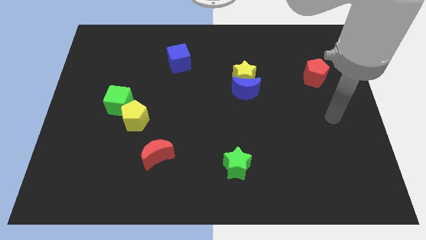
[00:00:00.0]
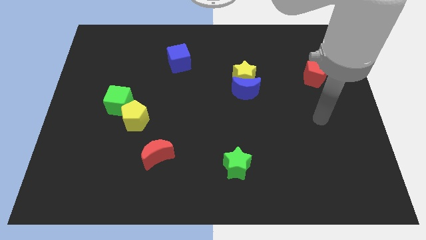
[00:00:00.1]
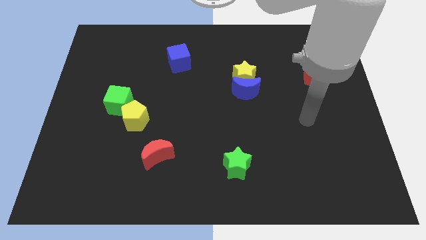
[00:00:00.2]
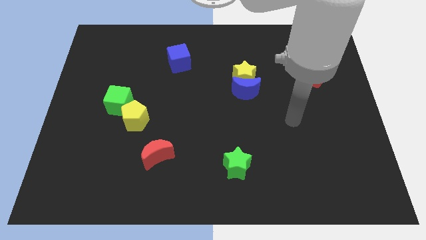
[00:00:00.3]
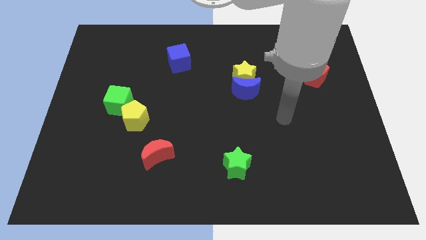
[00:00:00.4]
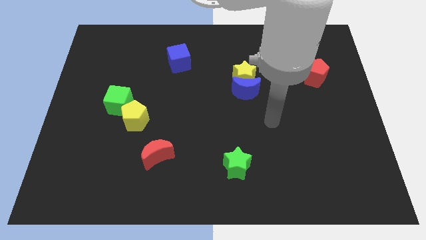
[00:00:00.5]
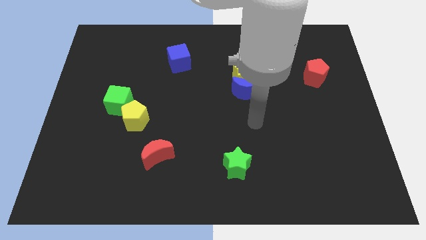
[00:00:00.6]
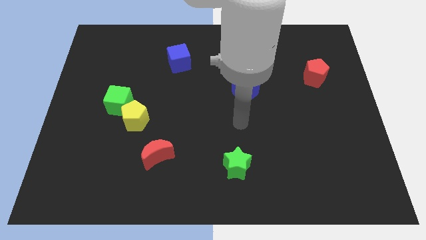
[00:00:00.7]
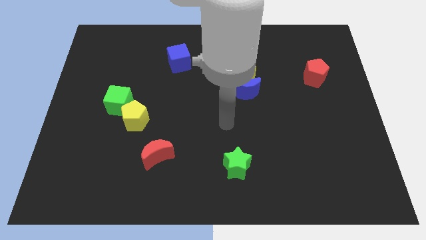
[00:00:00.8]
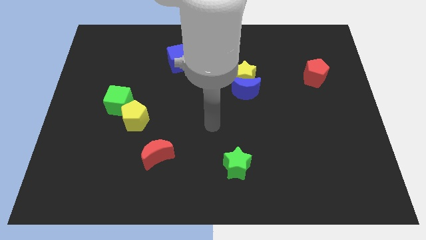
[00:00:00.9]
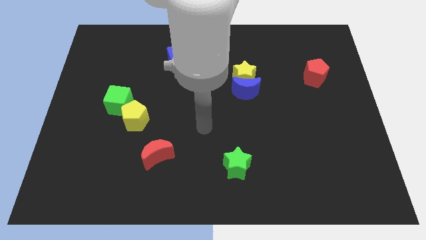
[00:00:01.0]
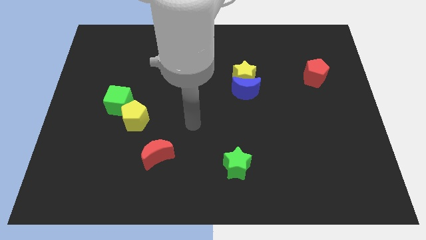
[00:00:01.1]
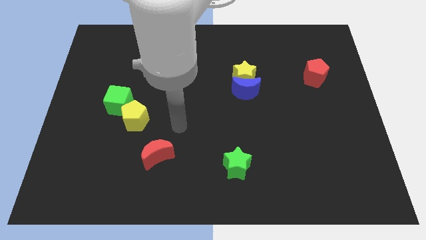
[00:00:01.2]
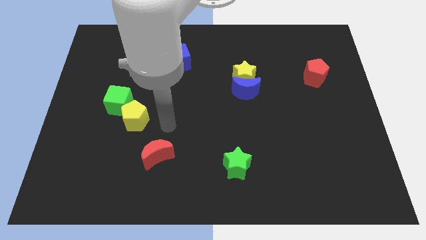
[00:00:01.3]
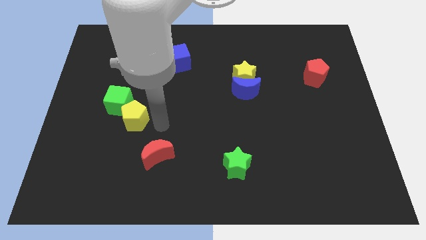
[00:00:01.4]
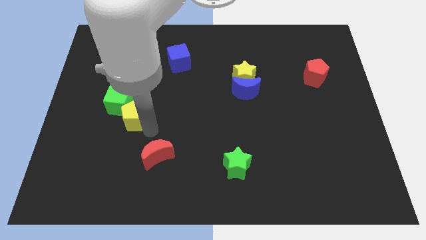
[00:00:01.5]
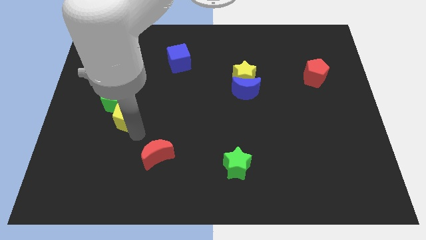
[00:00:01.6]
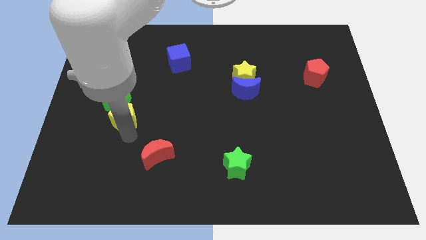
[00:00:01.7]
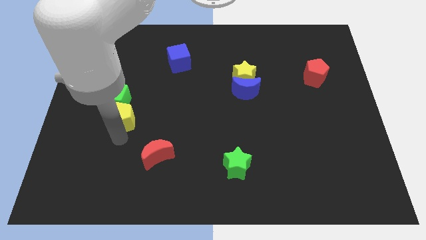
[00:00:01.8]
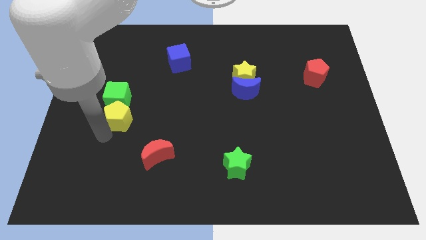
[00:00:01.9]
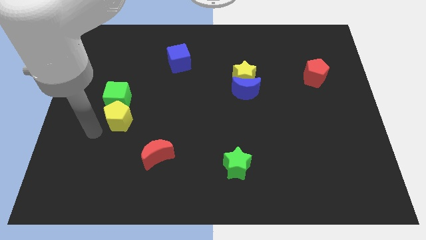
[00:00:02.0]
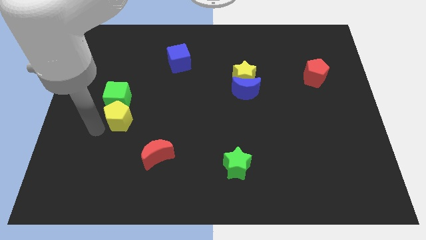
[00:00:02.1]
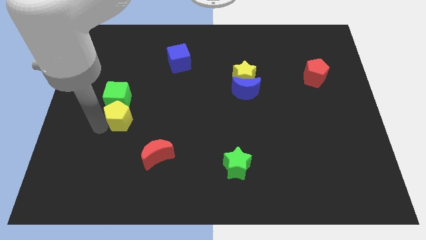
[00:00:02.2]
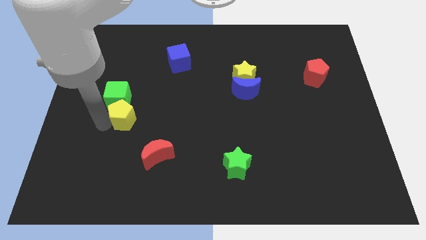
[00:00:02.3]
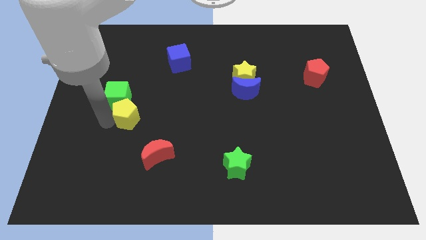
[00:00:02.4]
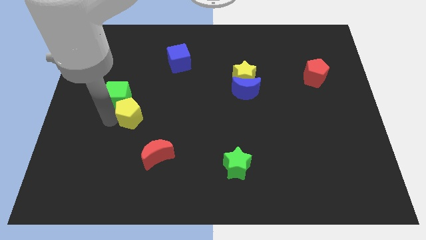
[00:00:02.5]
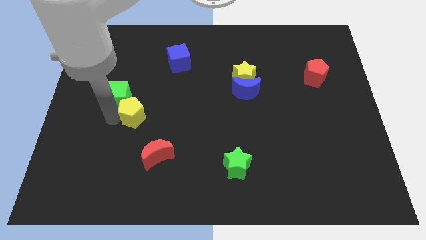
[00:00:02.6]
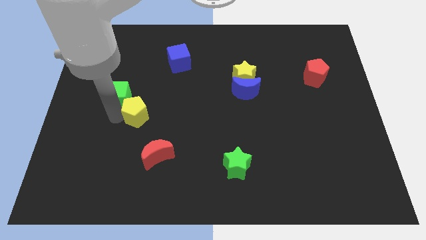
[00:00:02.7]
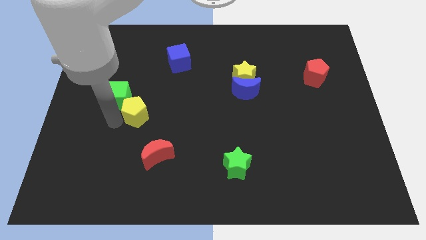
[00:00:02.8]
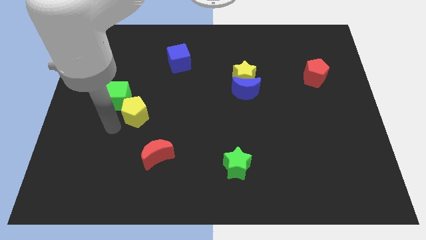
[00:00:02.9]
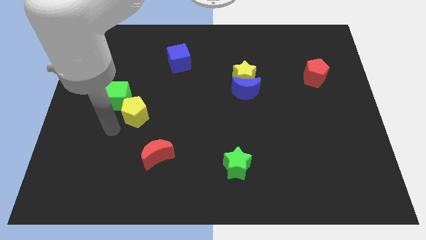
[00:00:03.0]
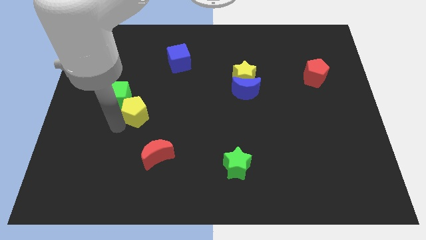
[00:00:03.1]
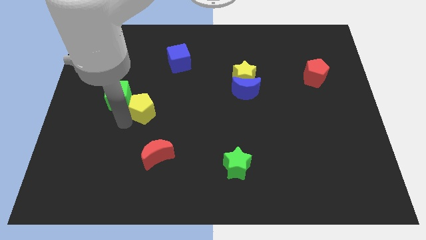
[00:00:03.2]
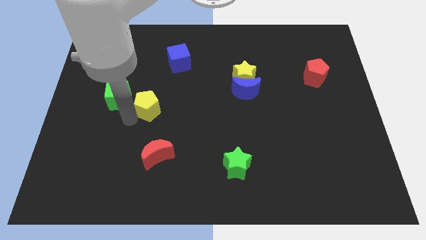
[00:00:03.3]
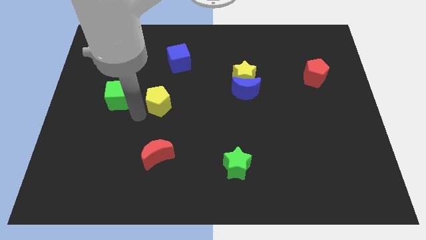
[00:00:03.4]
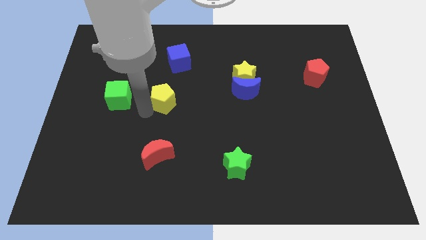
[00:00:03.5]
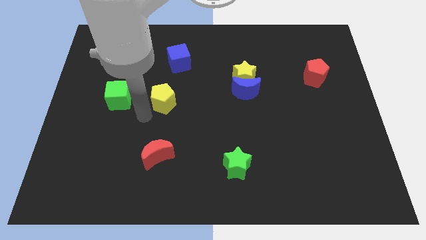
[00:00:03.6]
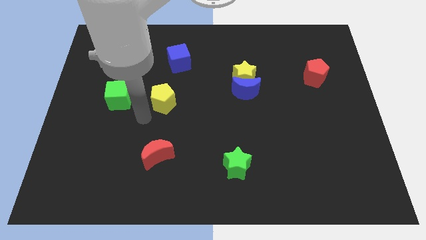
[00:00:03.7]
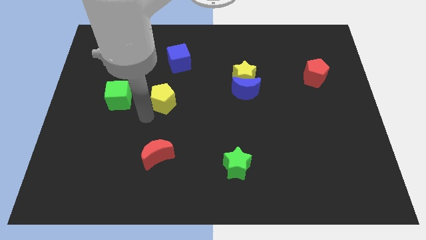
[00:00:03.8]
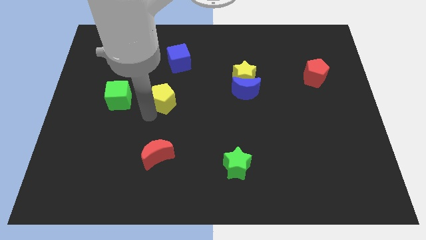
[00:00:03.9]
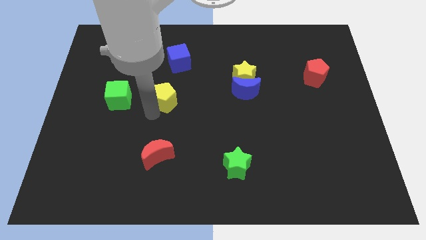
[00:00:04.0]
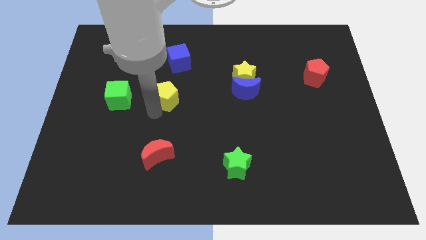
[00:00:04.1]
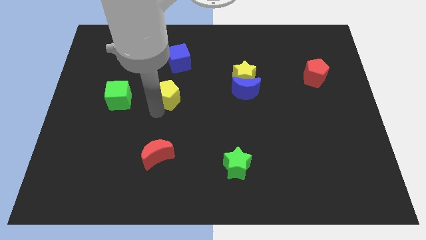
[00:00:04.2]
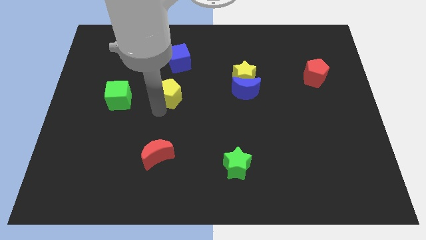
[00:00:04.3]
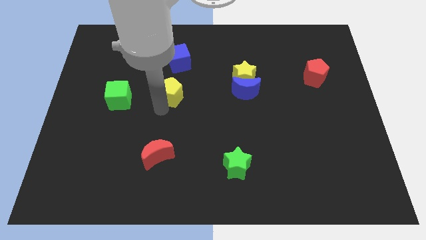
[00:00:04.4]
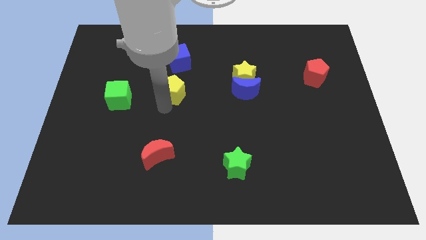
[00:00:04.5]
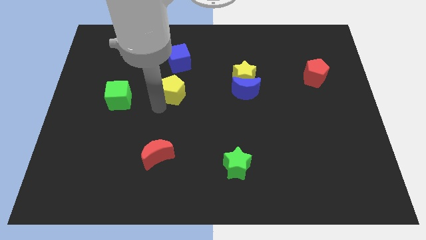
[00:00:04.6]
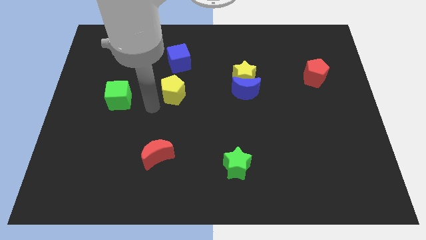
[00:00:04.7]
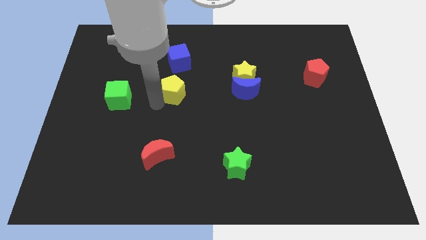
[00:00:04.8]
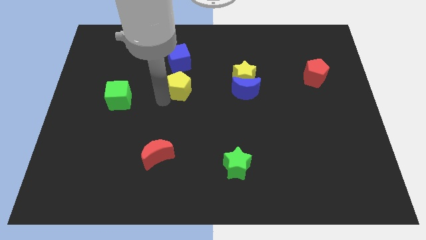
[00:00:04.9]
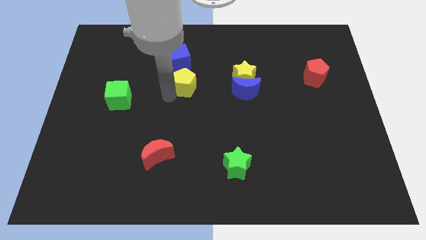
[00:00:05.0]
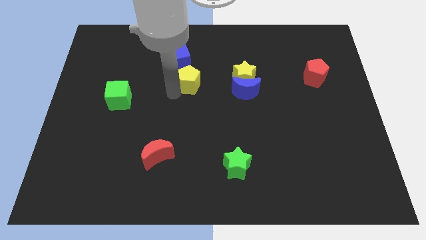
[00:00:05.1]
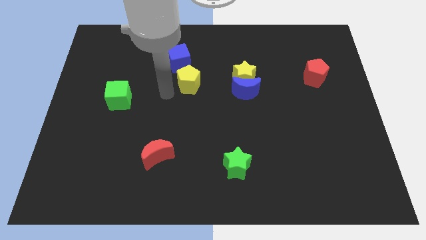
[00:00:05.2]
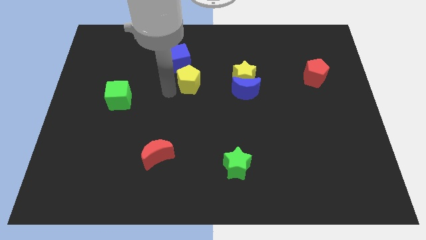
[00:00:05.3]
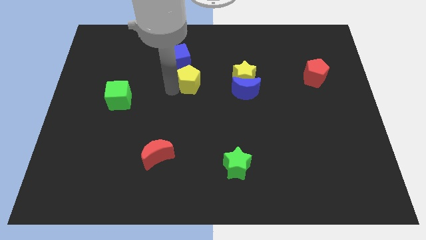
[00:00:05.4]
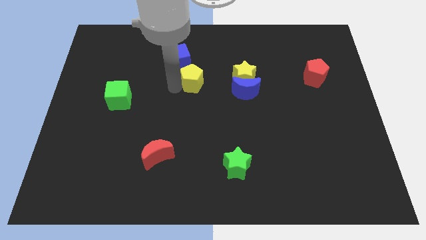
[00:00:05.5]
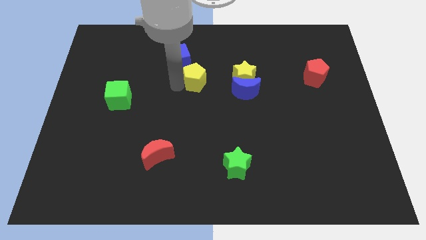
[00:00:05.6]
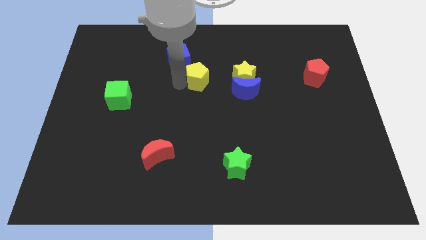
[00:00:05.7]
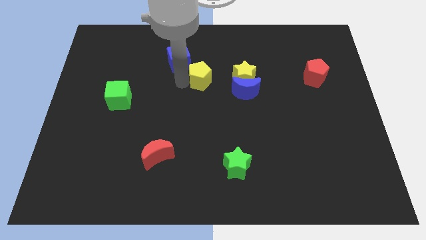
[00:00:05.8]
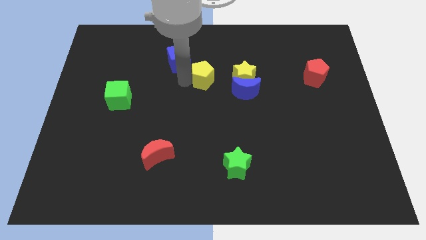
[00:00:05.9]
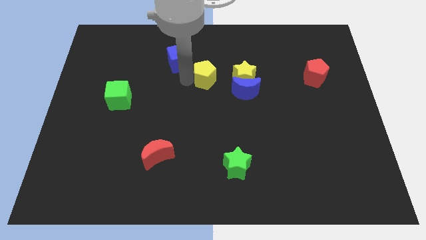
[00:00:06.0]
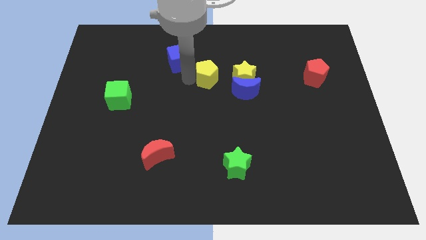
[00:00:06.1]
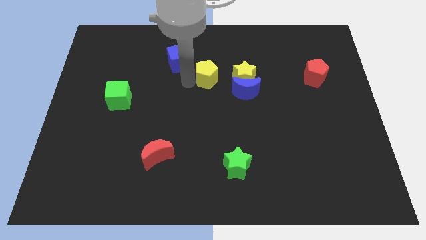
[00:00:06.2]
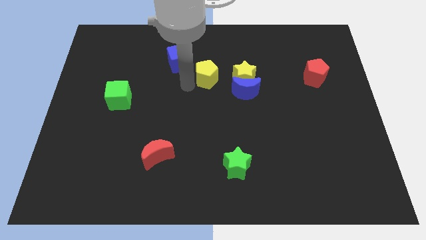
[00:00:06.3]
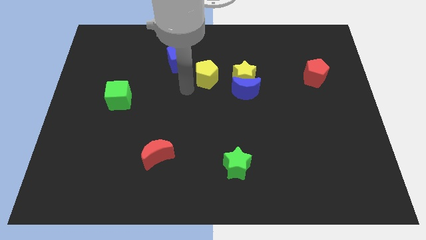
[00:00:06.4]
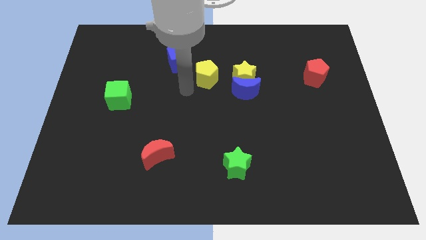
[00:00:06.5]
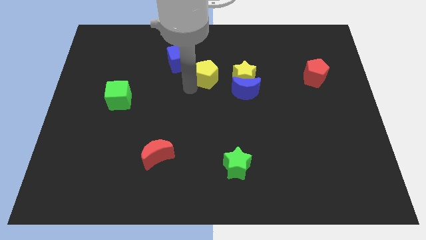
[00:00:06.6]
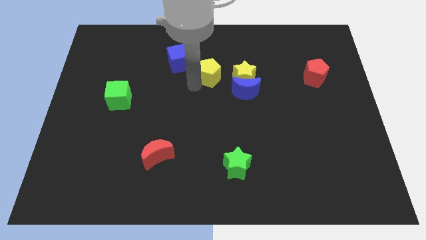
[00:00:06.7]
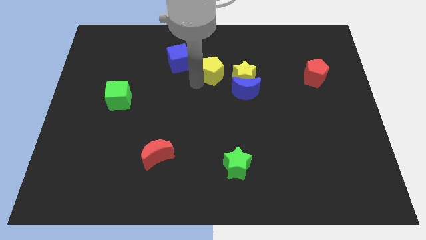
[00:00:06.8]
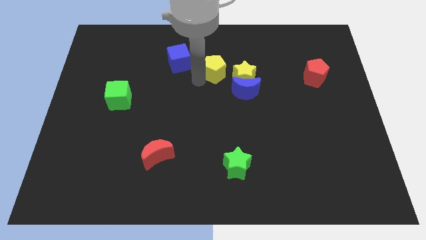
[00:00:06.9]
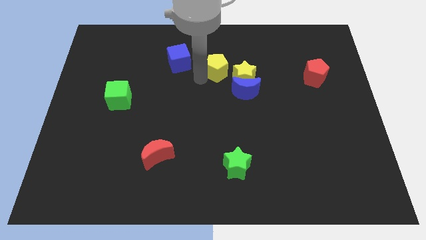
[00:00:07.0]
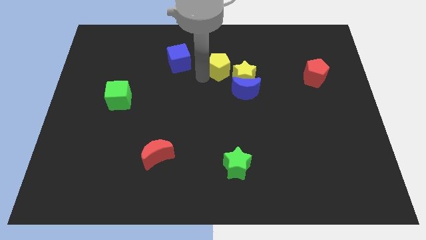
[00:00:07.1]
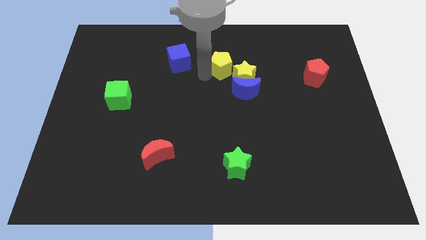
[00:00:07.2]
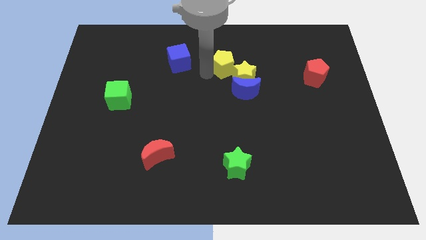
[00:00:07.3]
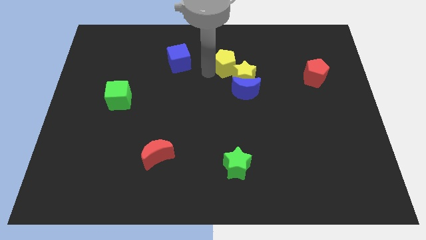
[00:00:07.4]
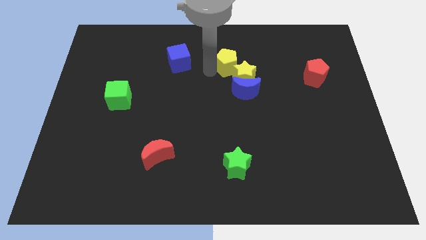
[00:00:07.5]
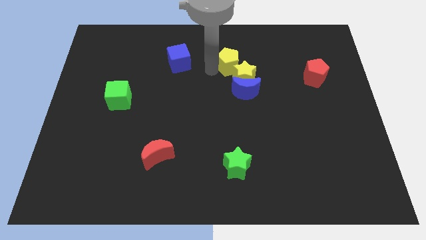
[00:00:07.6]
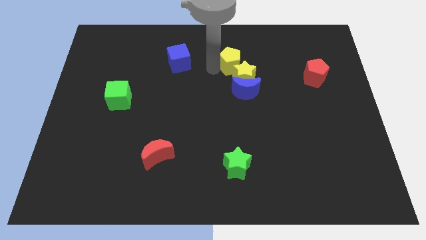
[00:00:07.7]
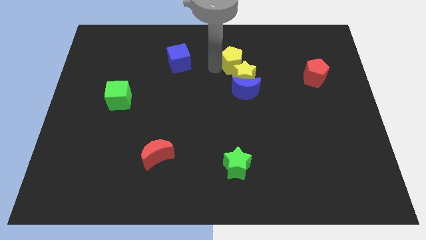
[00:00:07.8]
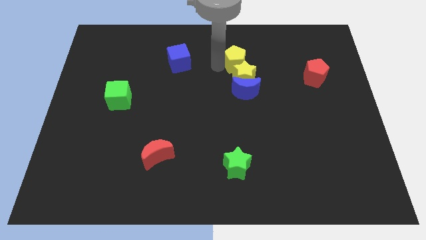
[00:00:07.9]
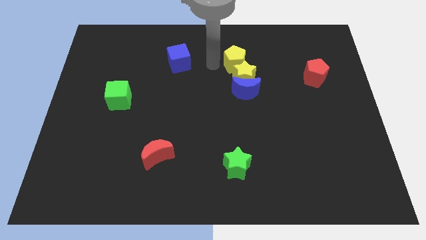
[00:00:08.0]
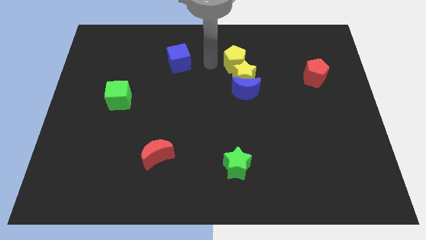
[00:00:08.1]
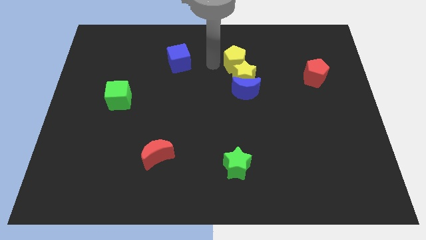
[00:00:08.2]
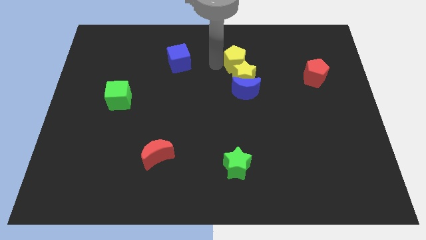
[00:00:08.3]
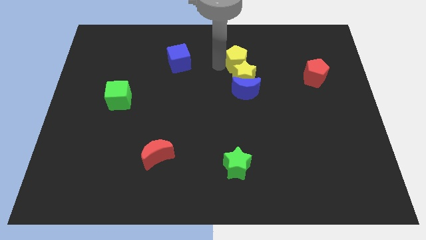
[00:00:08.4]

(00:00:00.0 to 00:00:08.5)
slide the yellow pentagon to the top right of the yellow star
